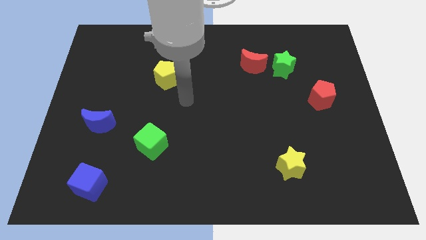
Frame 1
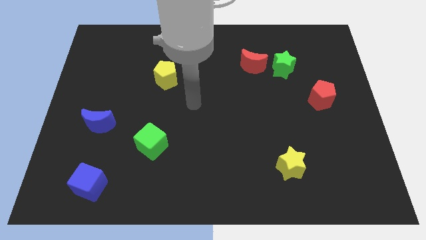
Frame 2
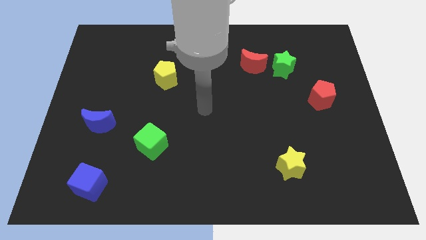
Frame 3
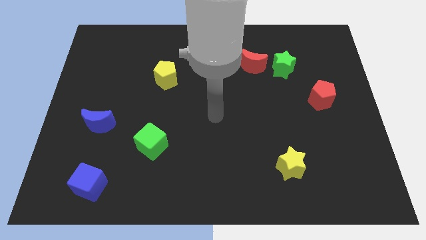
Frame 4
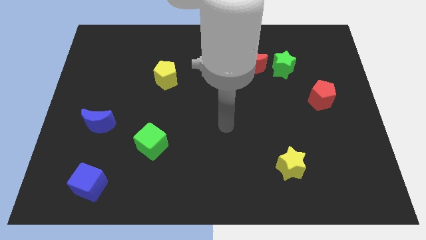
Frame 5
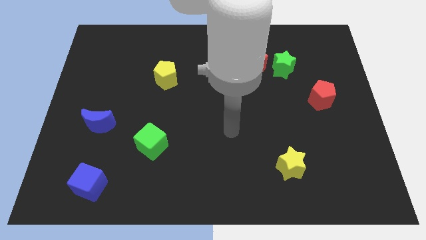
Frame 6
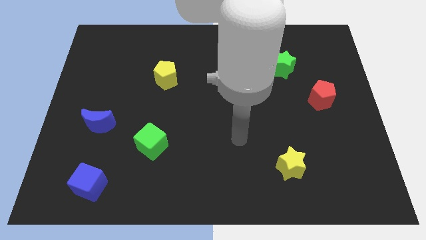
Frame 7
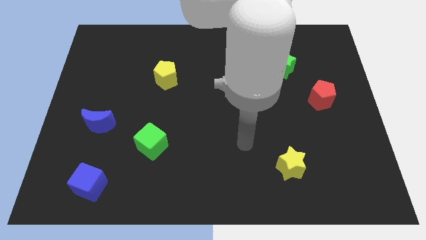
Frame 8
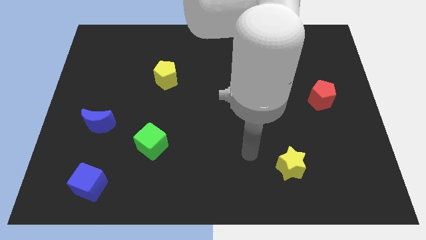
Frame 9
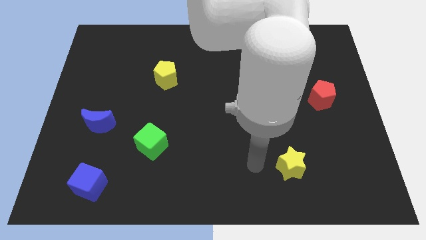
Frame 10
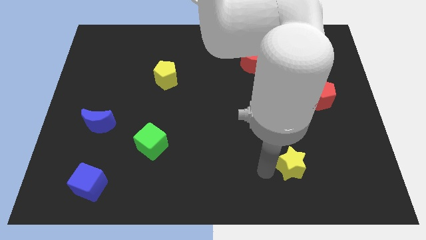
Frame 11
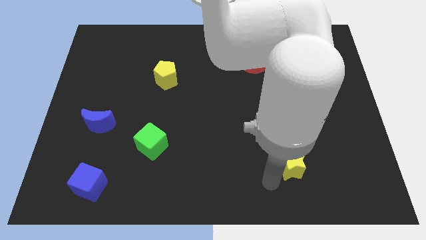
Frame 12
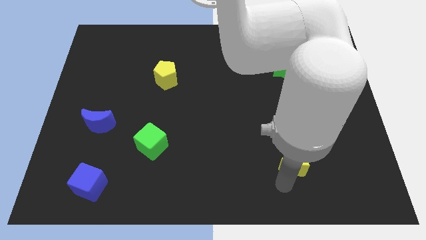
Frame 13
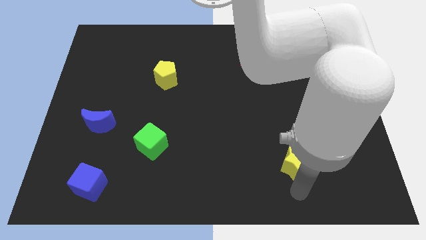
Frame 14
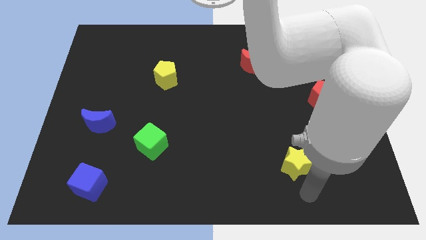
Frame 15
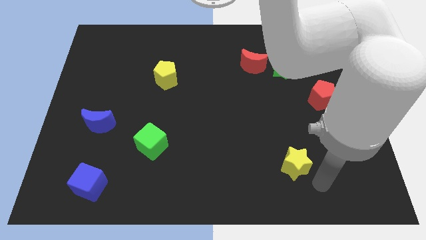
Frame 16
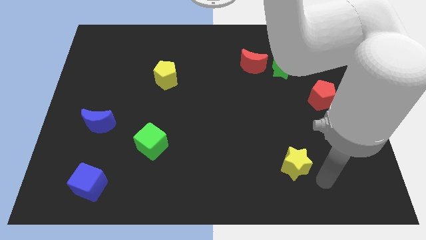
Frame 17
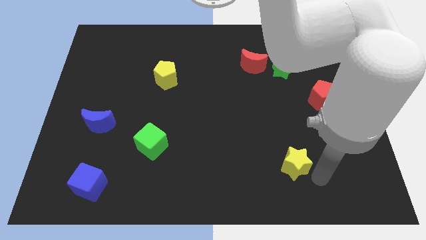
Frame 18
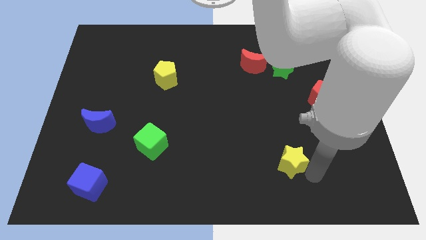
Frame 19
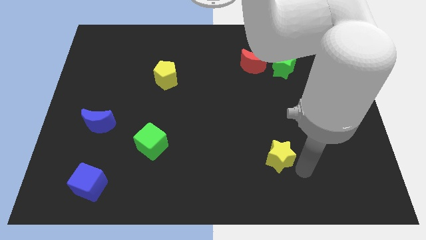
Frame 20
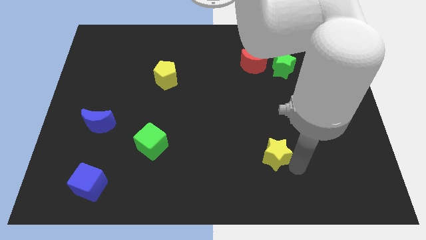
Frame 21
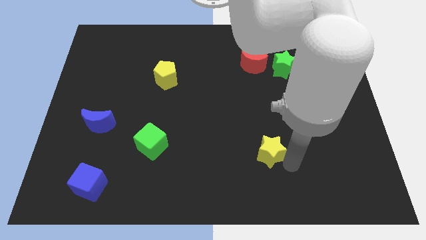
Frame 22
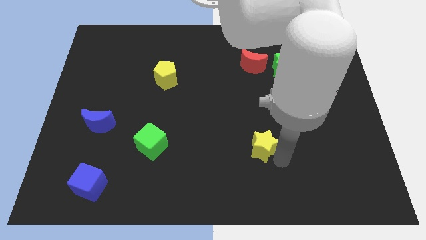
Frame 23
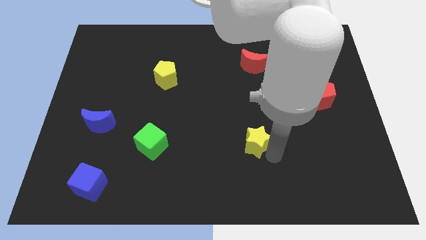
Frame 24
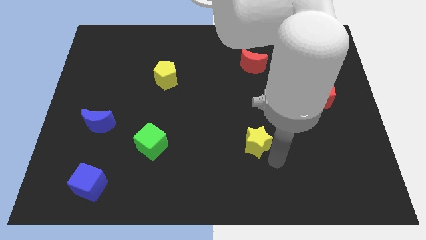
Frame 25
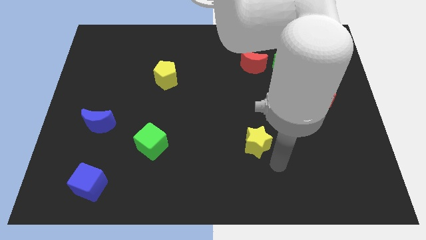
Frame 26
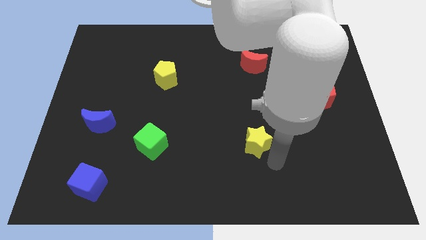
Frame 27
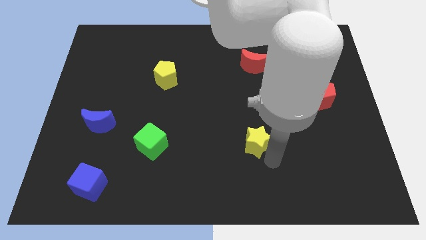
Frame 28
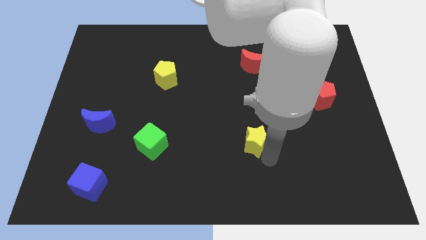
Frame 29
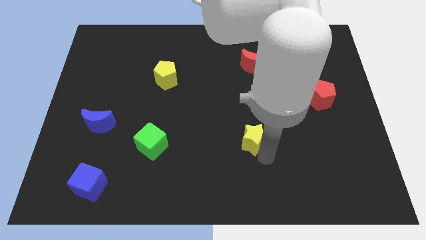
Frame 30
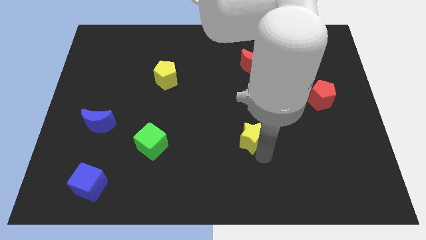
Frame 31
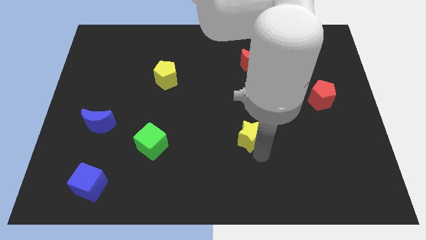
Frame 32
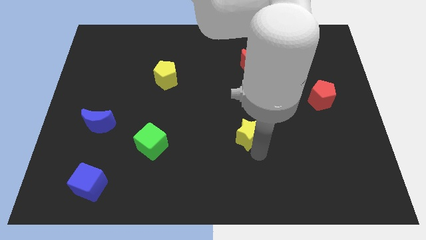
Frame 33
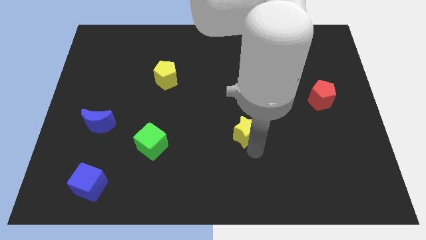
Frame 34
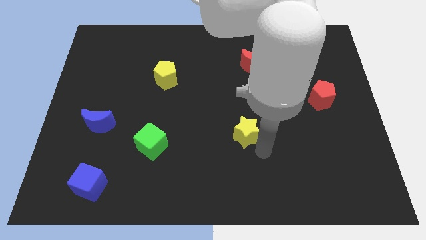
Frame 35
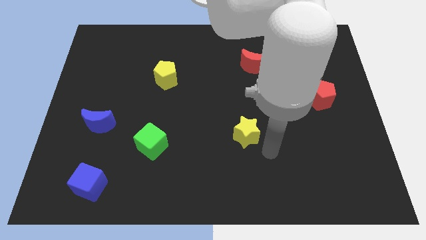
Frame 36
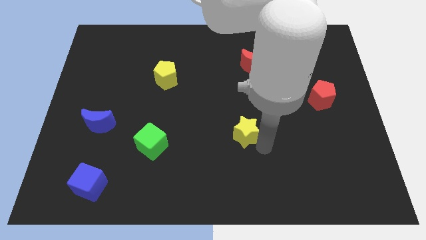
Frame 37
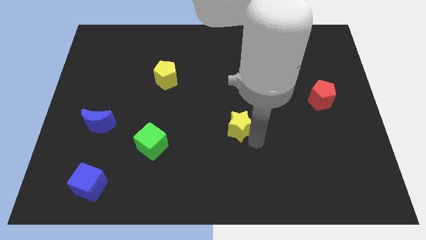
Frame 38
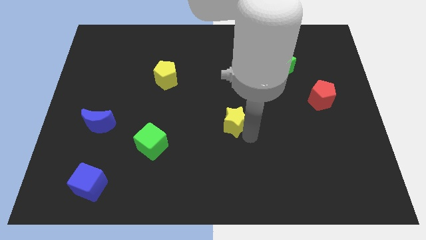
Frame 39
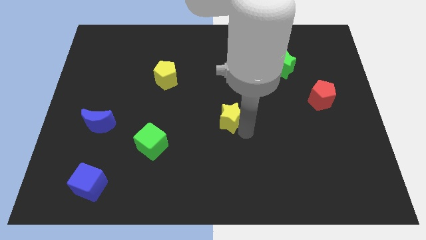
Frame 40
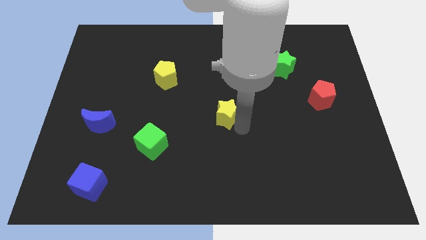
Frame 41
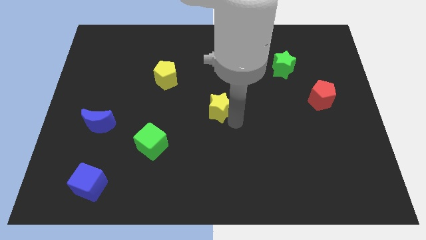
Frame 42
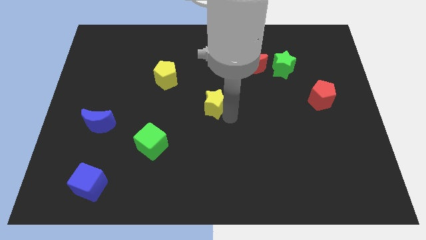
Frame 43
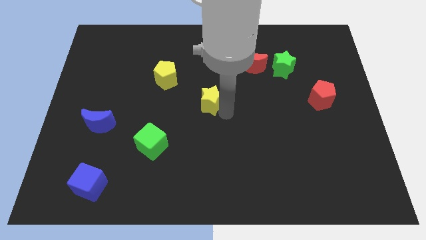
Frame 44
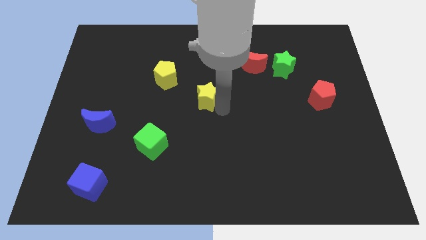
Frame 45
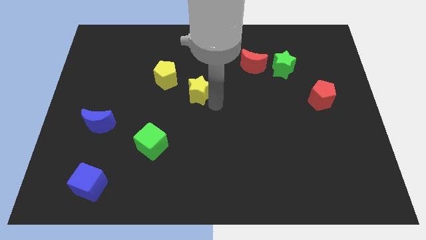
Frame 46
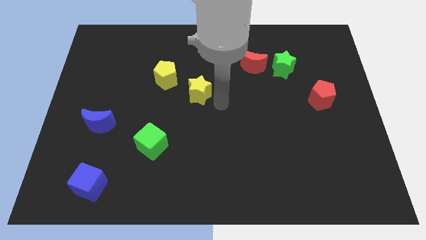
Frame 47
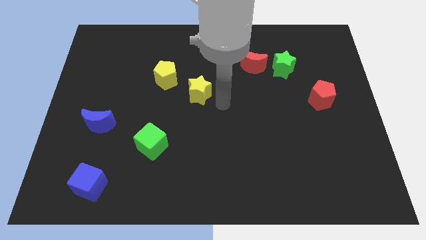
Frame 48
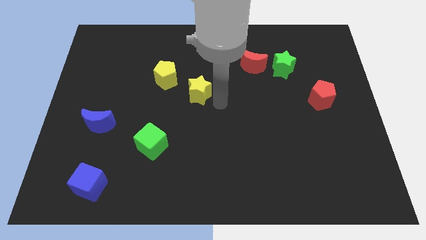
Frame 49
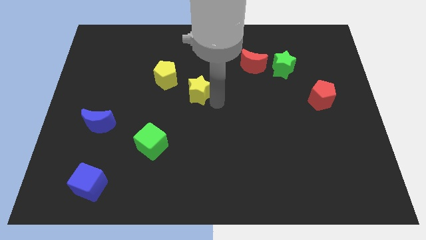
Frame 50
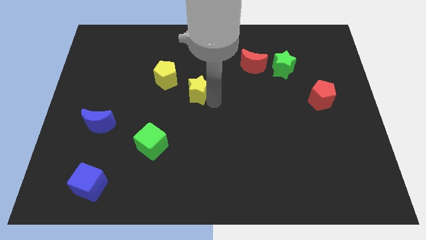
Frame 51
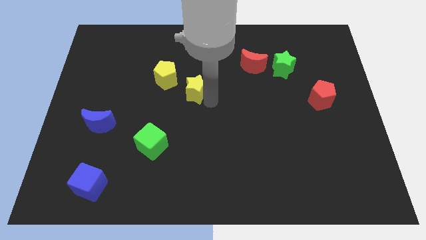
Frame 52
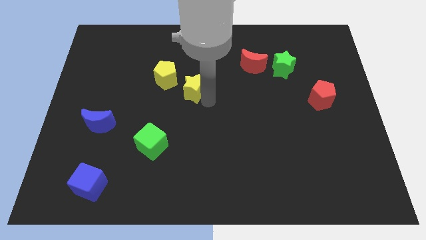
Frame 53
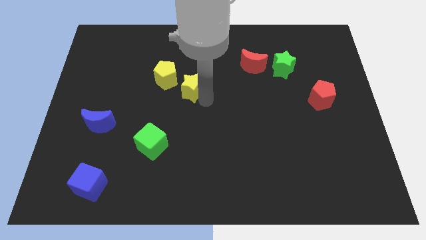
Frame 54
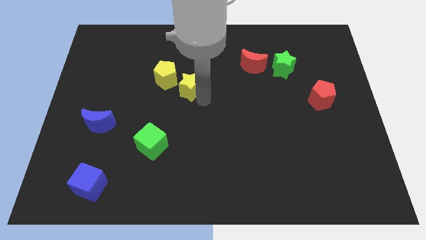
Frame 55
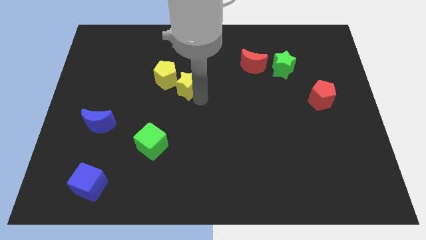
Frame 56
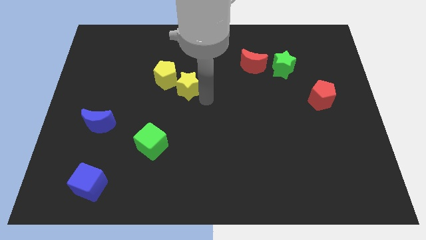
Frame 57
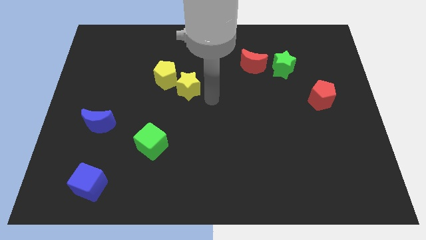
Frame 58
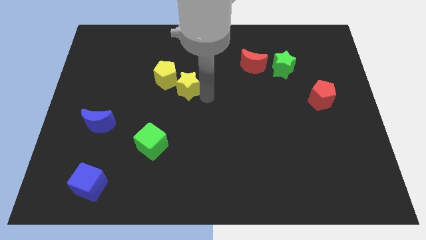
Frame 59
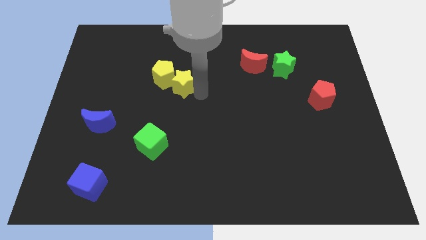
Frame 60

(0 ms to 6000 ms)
slide the yellow star to the yellow pentagon

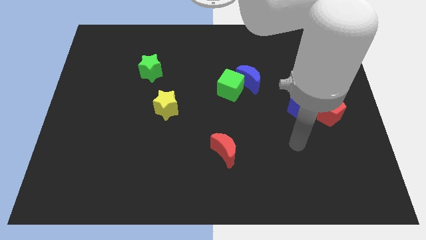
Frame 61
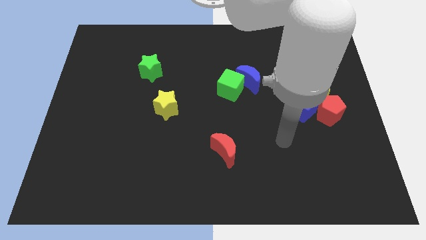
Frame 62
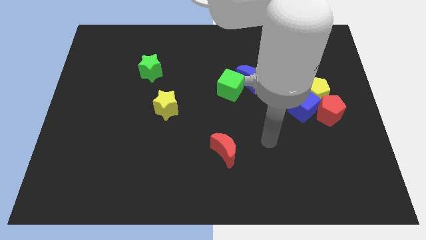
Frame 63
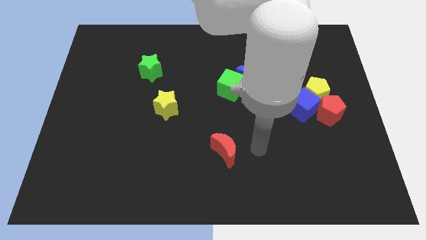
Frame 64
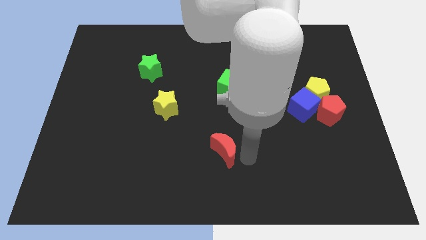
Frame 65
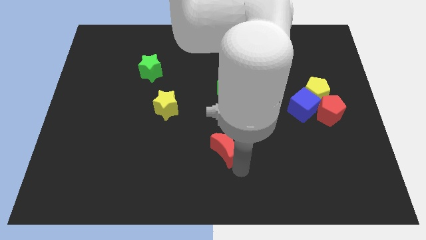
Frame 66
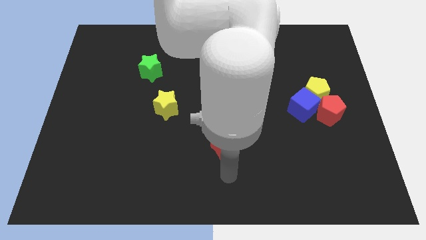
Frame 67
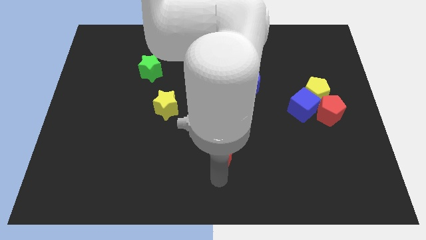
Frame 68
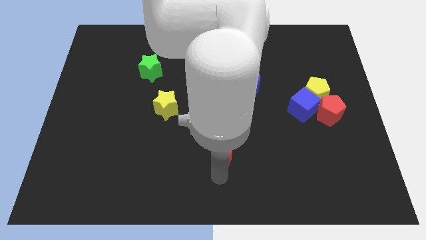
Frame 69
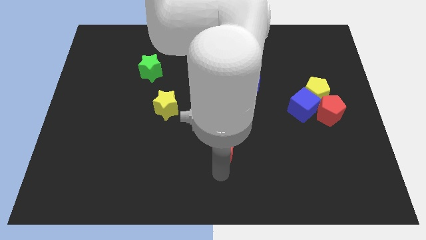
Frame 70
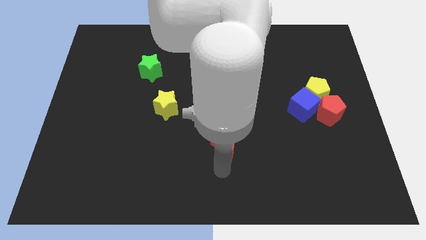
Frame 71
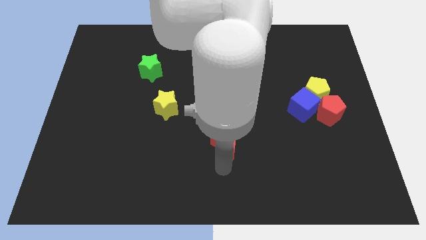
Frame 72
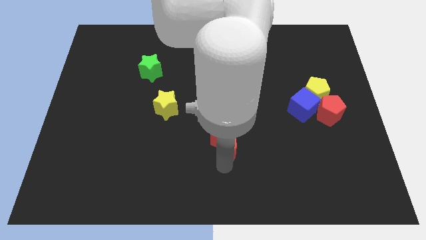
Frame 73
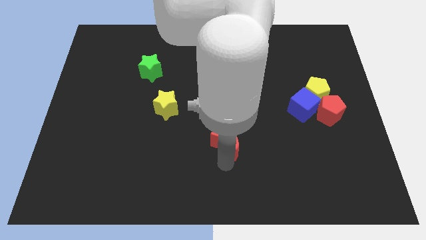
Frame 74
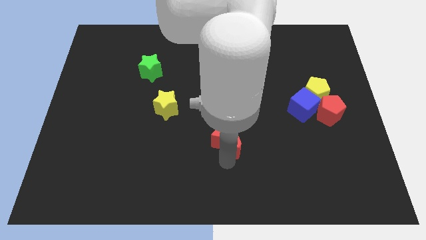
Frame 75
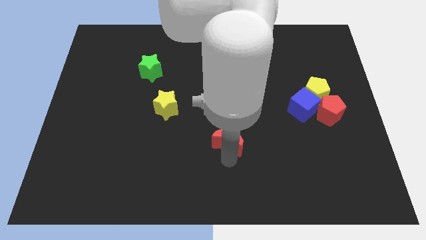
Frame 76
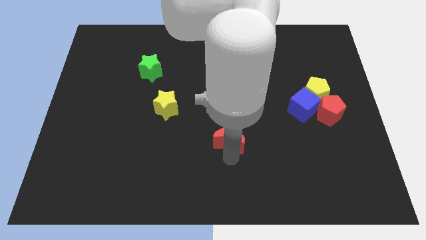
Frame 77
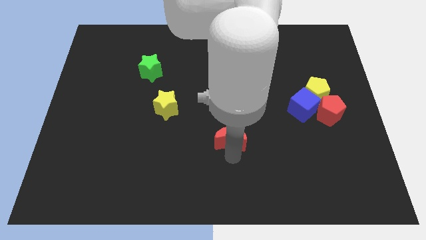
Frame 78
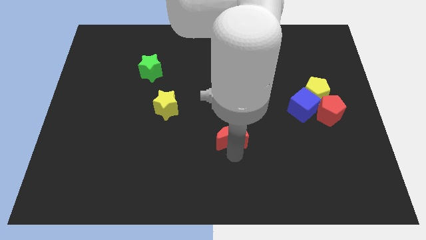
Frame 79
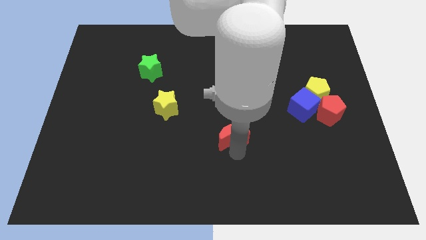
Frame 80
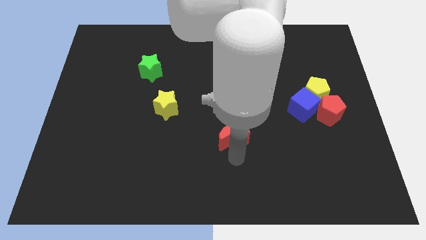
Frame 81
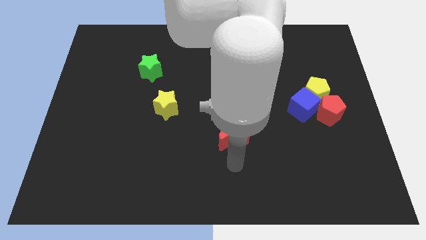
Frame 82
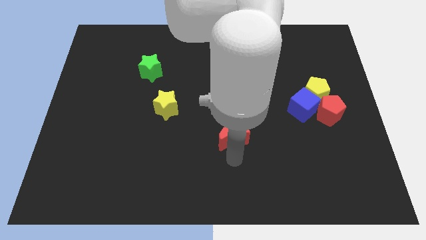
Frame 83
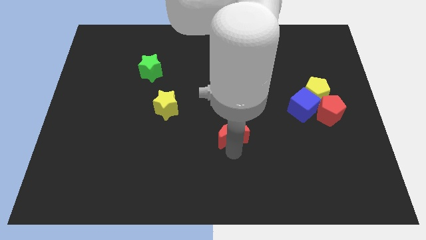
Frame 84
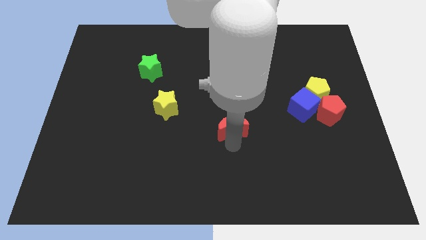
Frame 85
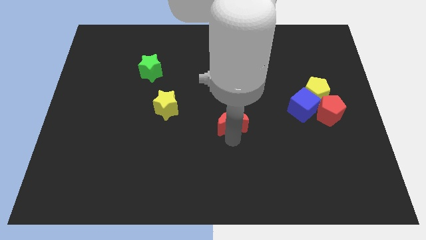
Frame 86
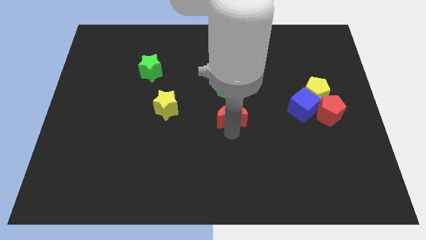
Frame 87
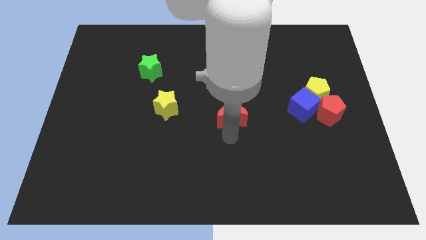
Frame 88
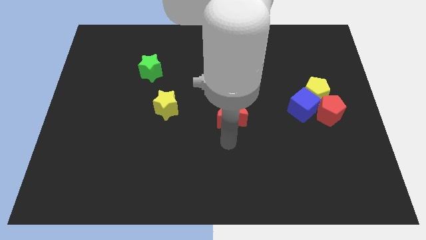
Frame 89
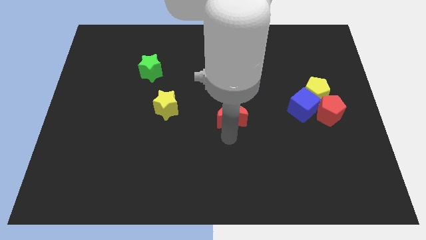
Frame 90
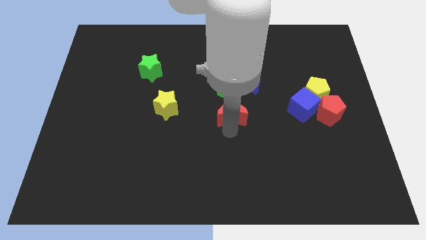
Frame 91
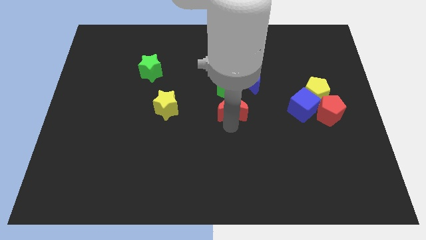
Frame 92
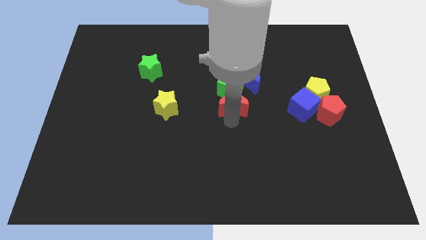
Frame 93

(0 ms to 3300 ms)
move the red moon to the green cube
